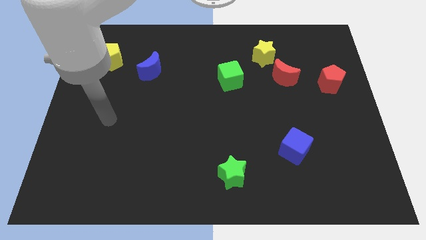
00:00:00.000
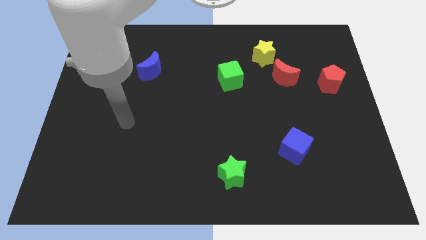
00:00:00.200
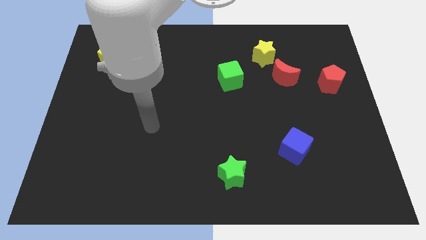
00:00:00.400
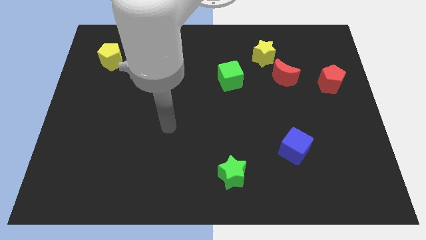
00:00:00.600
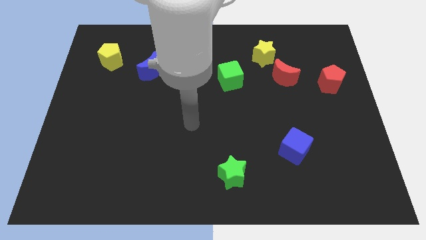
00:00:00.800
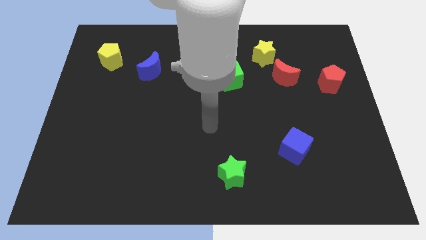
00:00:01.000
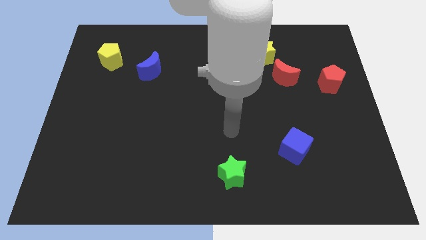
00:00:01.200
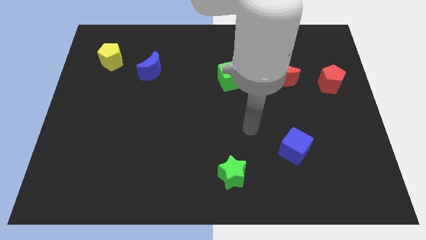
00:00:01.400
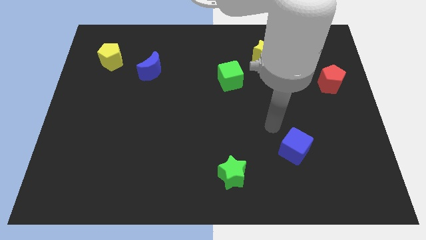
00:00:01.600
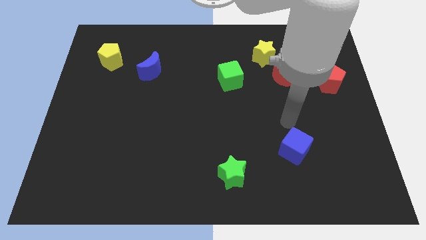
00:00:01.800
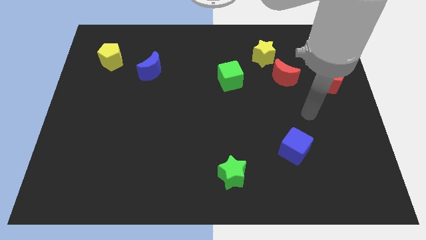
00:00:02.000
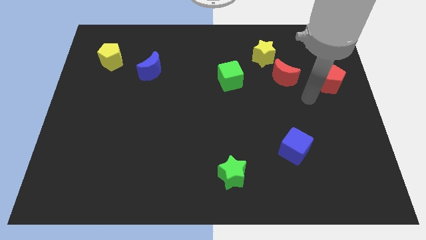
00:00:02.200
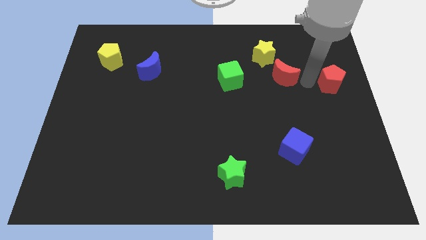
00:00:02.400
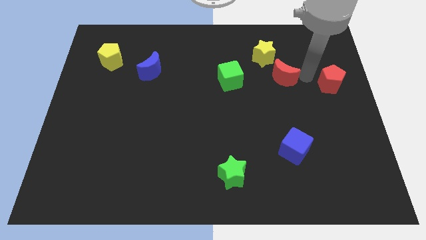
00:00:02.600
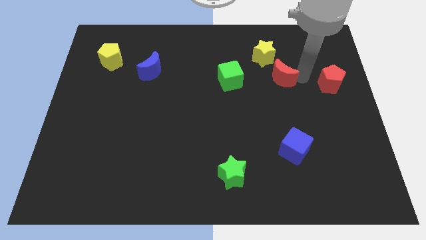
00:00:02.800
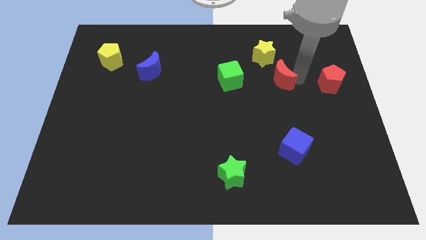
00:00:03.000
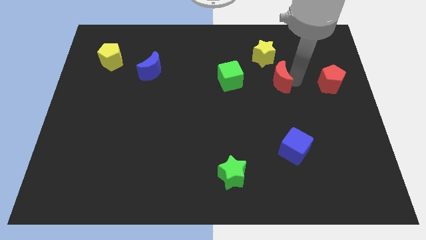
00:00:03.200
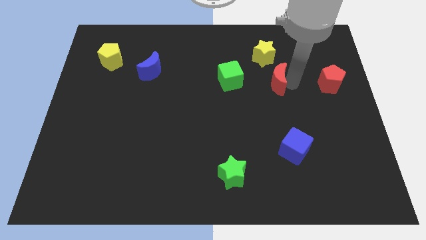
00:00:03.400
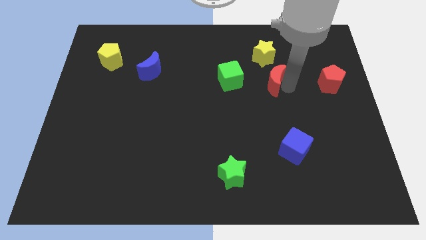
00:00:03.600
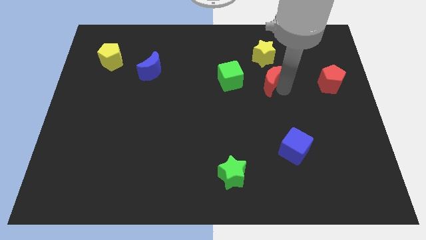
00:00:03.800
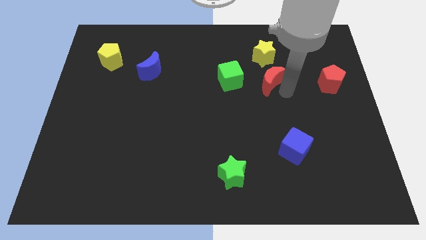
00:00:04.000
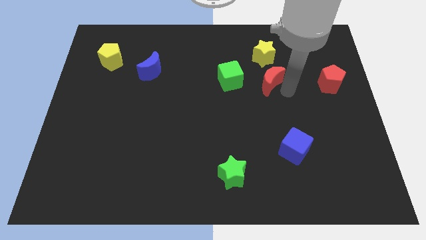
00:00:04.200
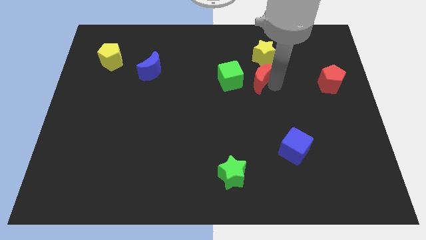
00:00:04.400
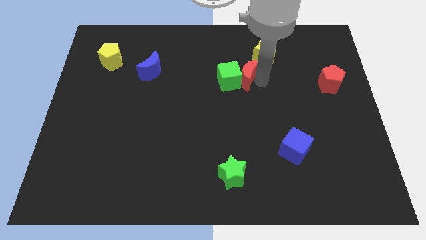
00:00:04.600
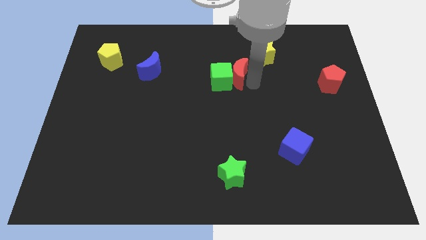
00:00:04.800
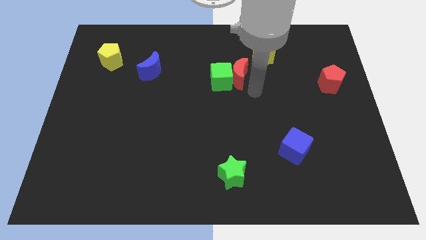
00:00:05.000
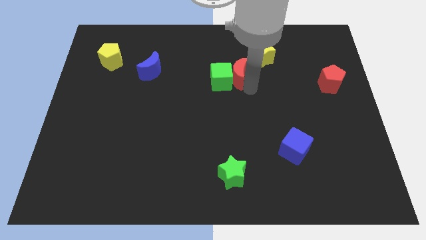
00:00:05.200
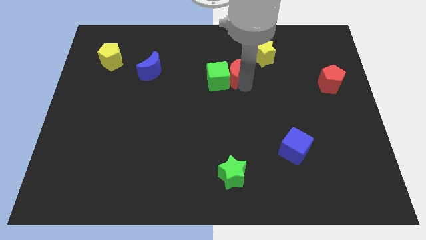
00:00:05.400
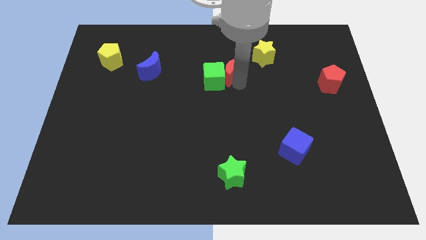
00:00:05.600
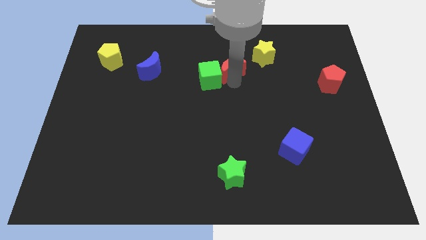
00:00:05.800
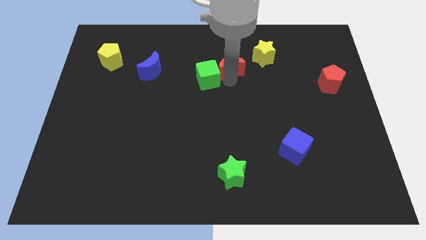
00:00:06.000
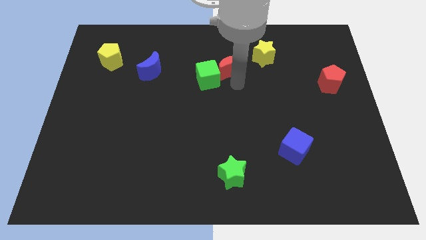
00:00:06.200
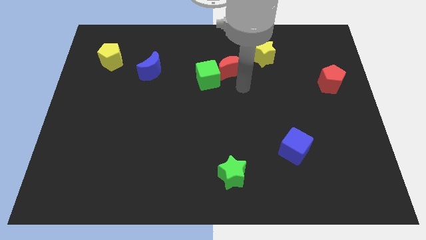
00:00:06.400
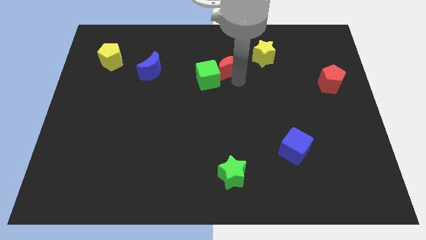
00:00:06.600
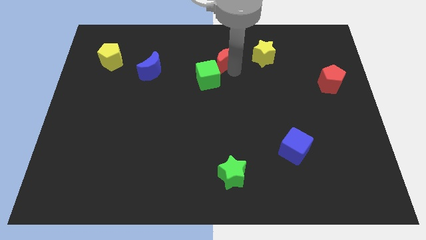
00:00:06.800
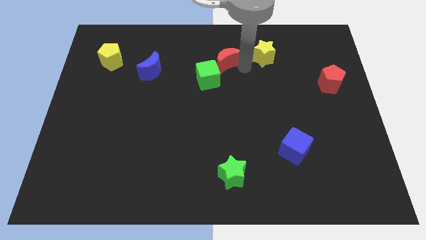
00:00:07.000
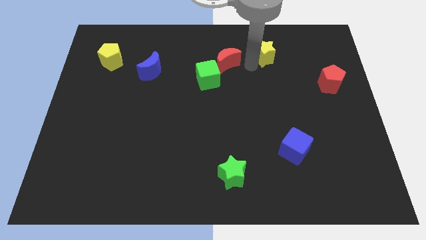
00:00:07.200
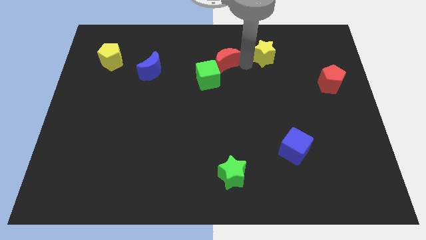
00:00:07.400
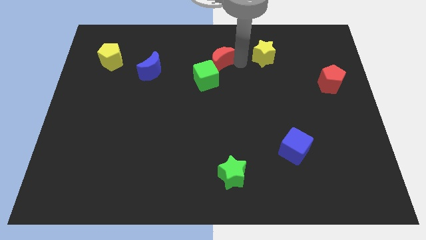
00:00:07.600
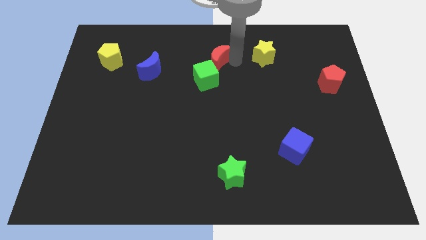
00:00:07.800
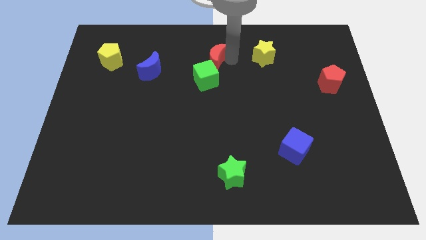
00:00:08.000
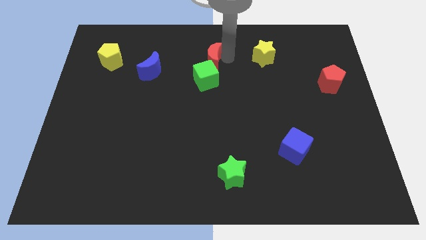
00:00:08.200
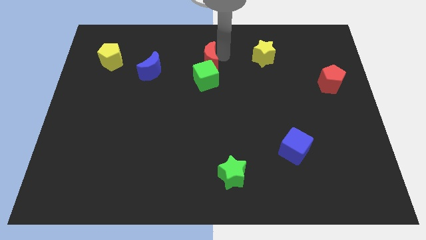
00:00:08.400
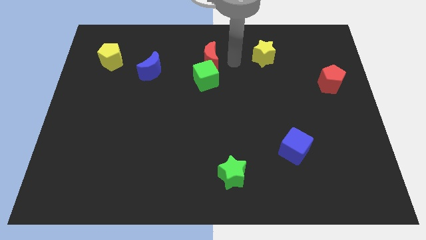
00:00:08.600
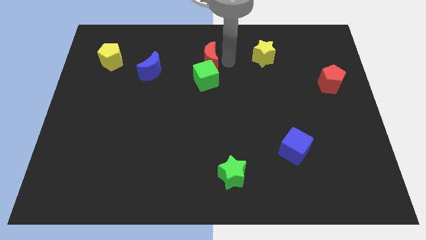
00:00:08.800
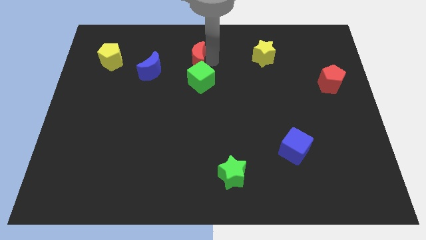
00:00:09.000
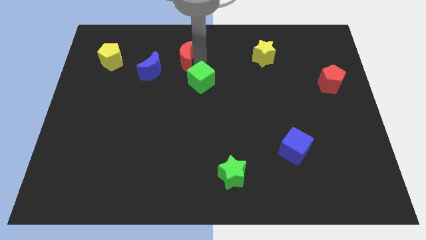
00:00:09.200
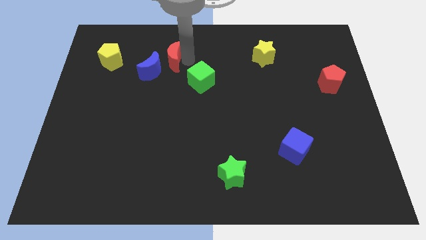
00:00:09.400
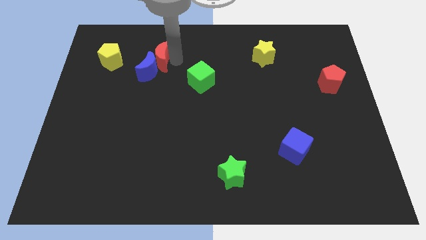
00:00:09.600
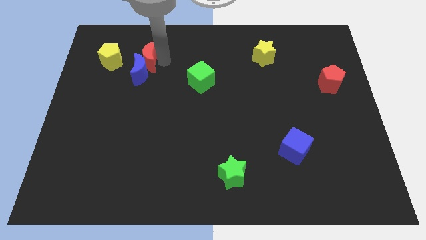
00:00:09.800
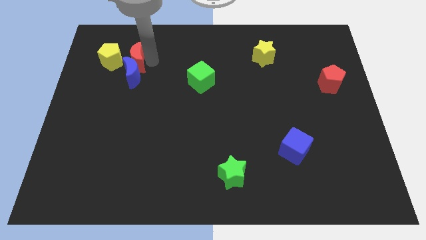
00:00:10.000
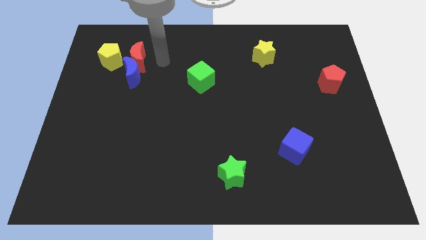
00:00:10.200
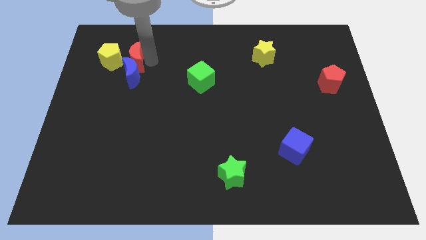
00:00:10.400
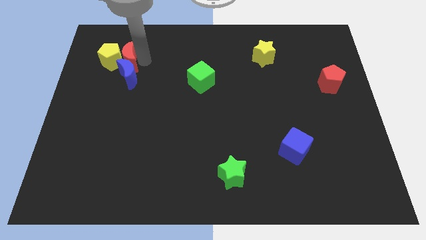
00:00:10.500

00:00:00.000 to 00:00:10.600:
move the red moon towards the yellow pentagon

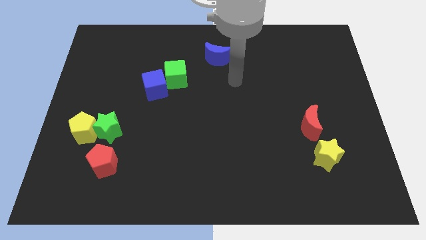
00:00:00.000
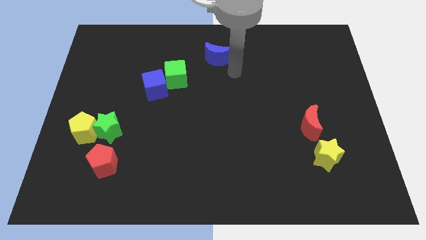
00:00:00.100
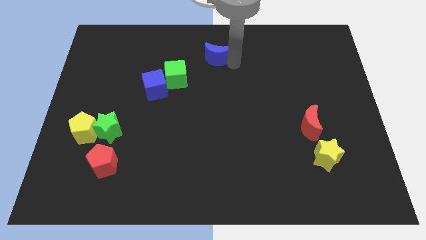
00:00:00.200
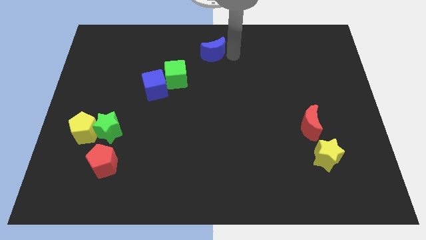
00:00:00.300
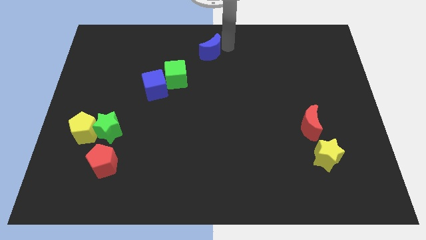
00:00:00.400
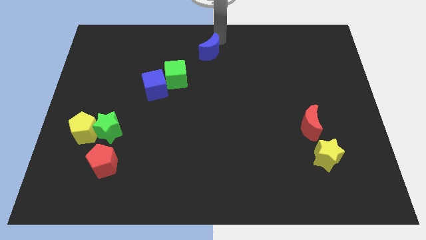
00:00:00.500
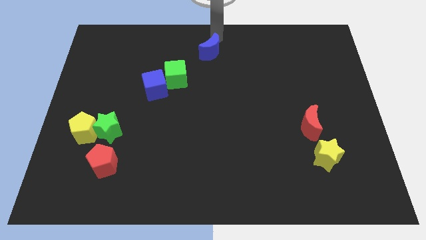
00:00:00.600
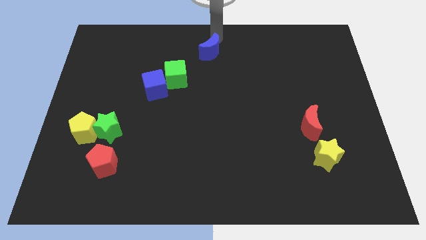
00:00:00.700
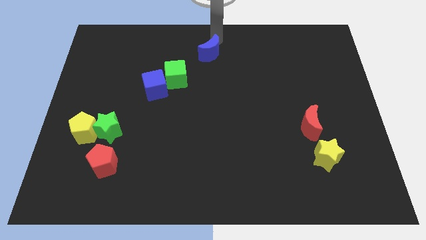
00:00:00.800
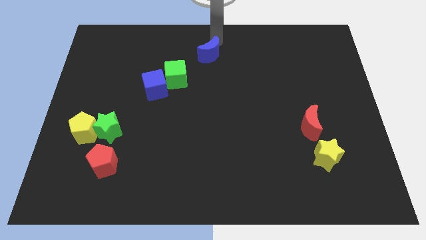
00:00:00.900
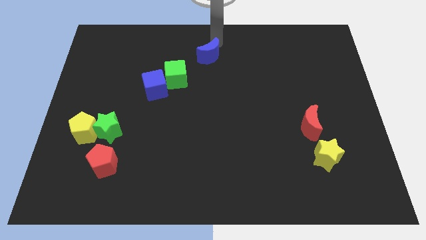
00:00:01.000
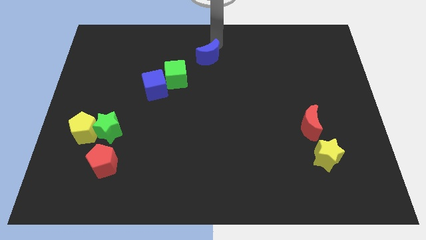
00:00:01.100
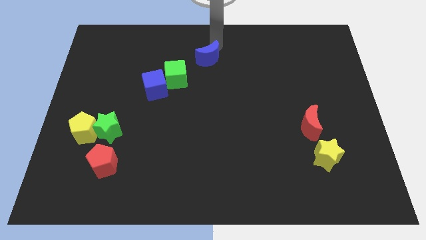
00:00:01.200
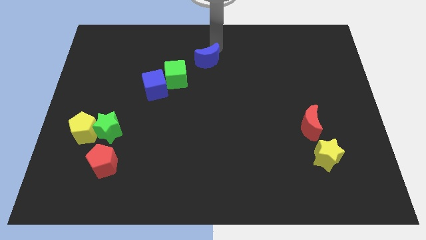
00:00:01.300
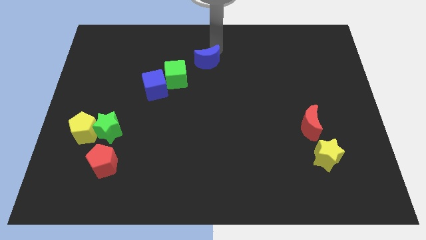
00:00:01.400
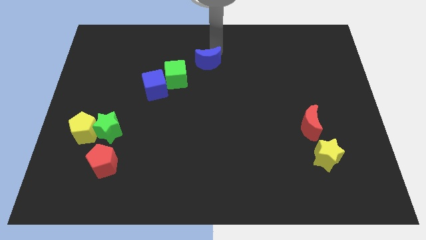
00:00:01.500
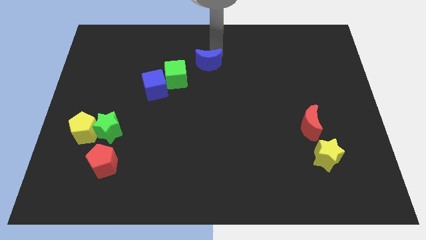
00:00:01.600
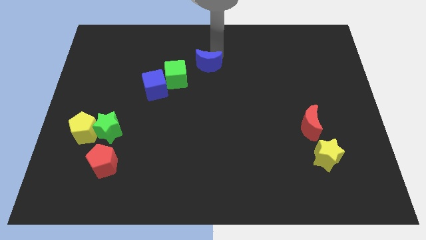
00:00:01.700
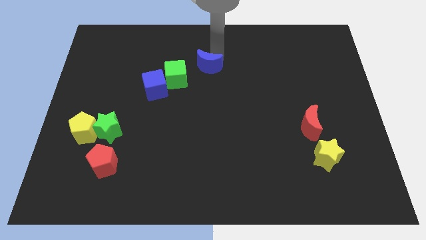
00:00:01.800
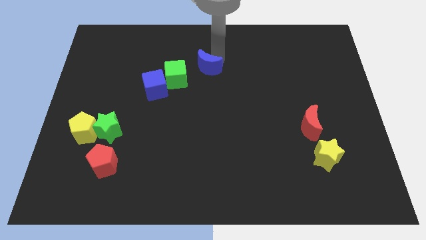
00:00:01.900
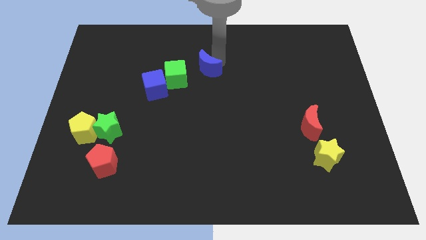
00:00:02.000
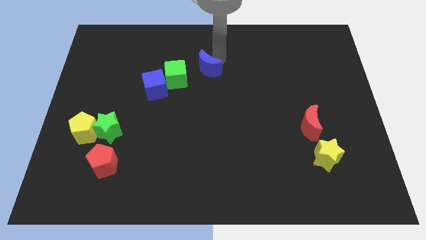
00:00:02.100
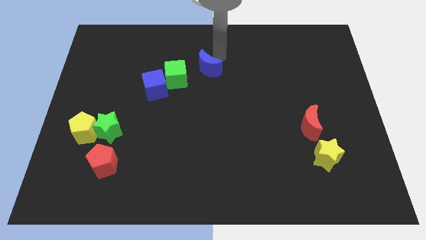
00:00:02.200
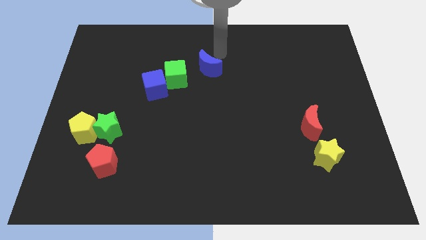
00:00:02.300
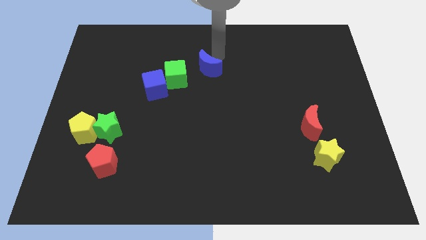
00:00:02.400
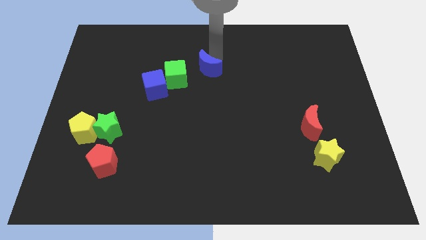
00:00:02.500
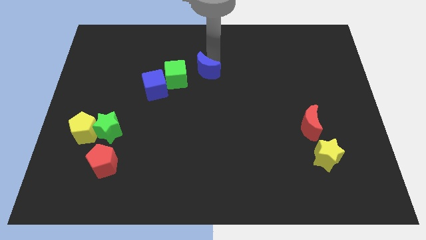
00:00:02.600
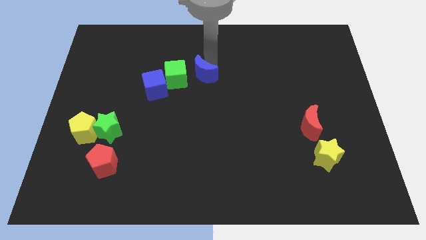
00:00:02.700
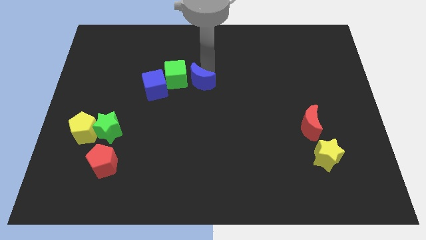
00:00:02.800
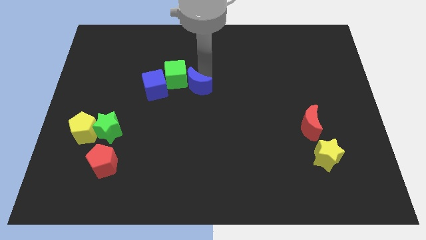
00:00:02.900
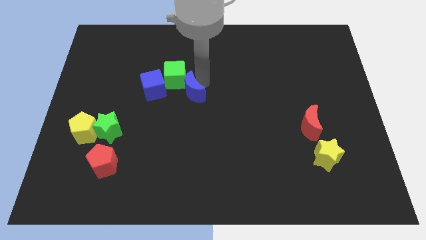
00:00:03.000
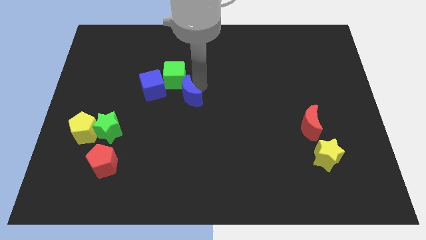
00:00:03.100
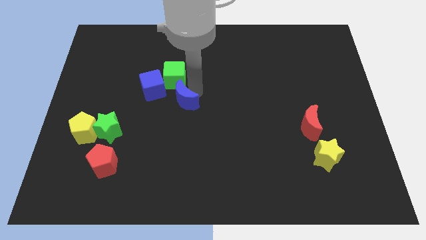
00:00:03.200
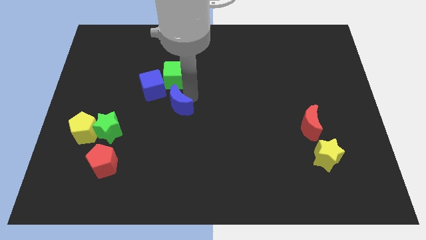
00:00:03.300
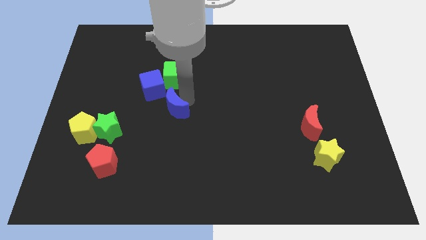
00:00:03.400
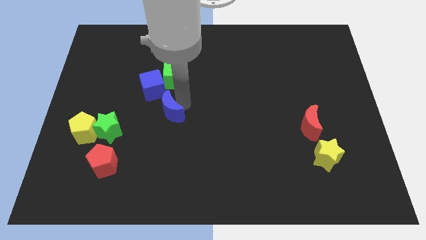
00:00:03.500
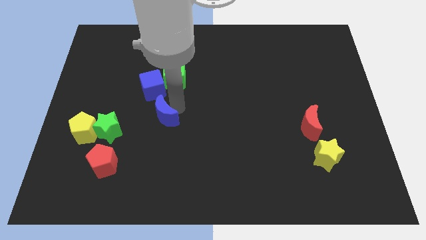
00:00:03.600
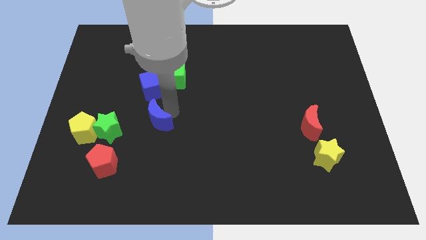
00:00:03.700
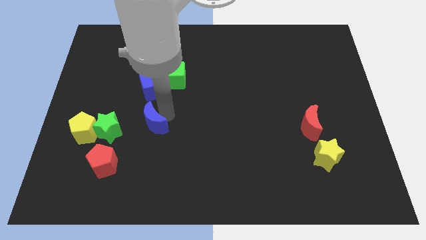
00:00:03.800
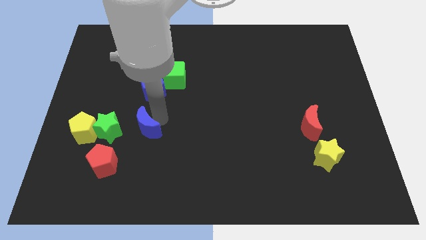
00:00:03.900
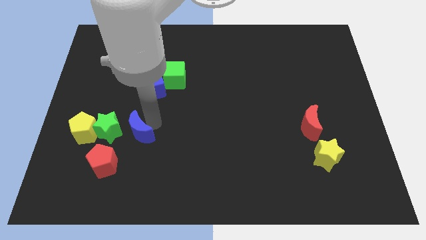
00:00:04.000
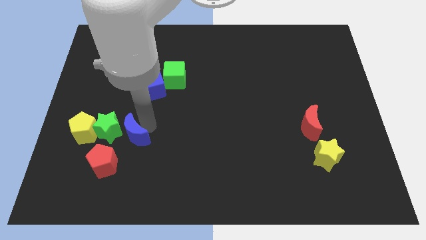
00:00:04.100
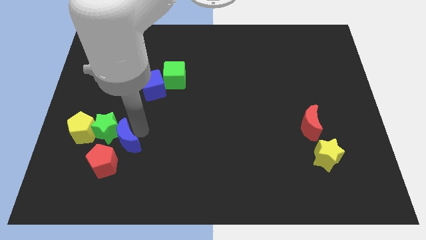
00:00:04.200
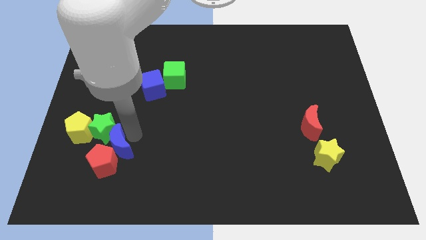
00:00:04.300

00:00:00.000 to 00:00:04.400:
put the blue moon close to the red pentagon
